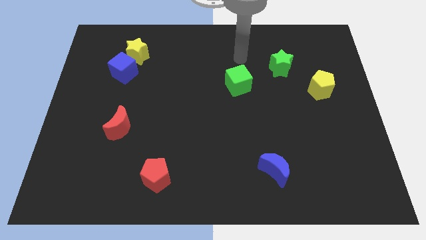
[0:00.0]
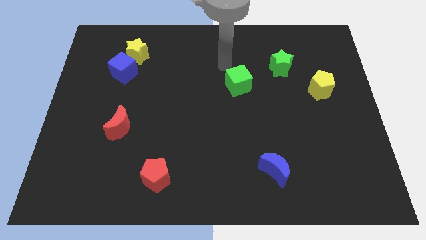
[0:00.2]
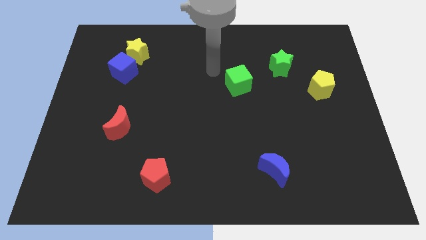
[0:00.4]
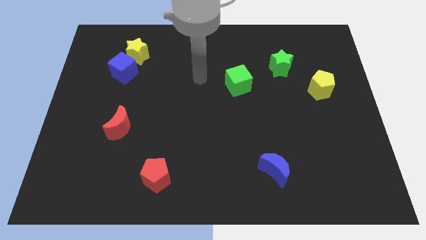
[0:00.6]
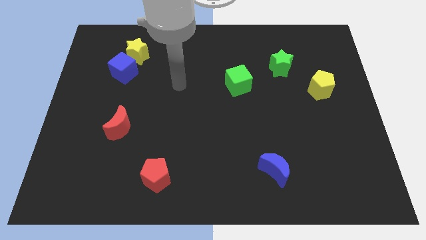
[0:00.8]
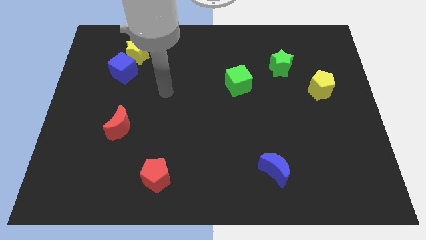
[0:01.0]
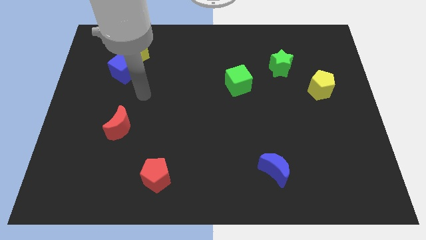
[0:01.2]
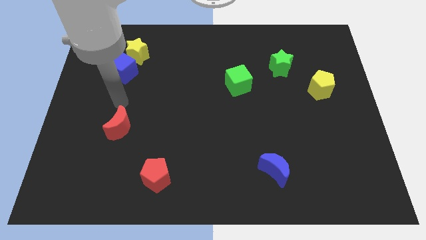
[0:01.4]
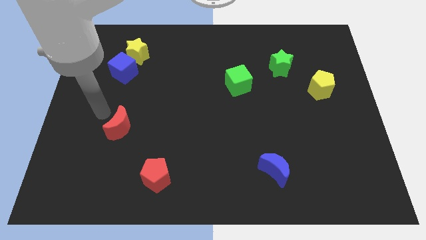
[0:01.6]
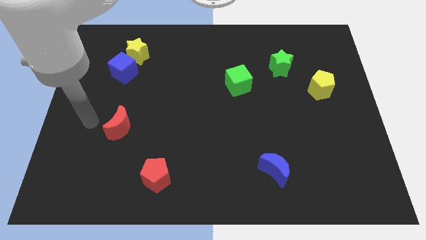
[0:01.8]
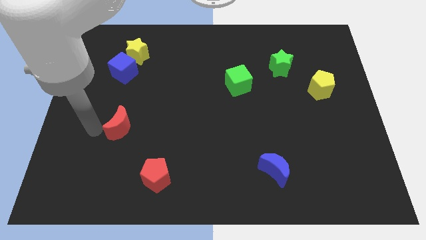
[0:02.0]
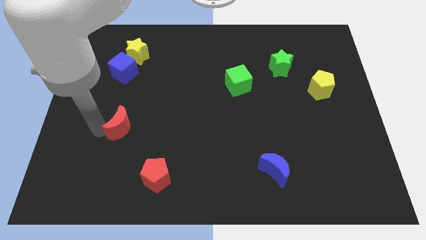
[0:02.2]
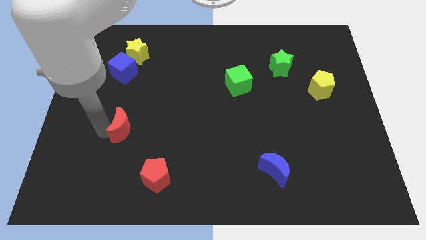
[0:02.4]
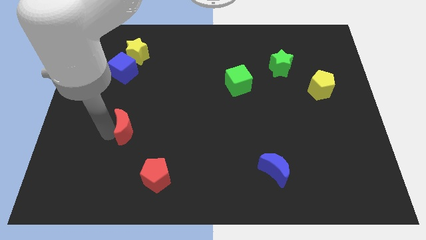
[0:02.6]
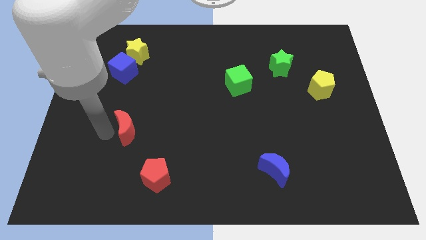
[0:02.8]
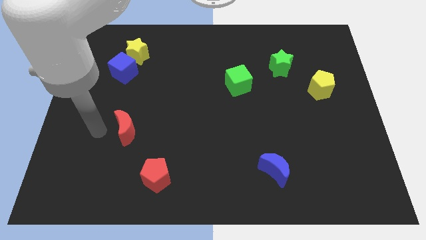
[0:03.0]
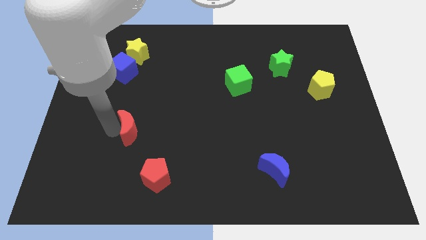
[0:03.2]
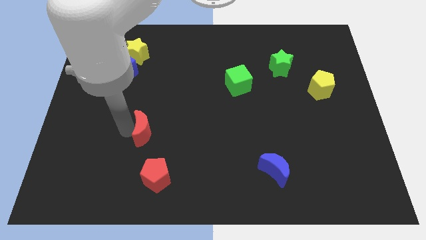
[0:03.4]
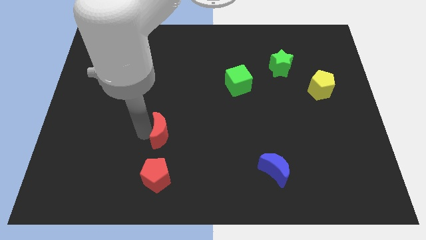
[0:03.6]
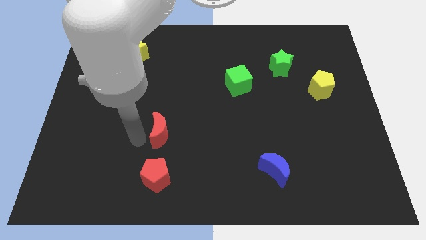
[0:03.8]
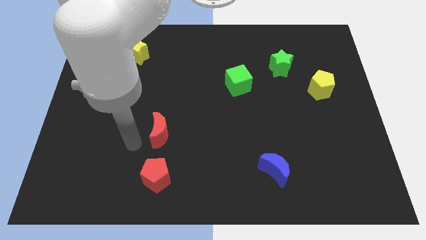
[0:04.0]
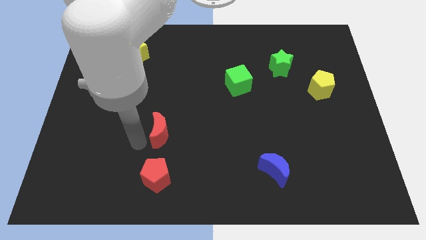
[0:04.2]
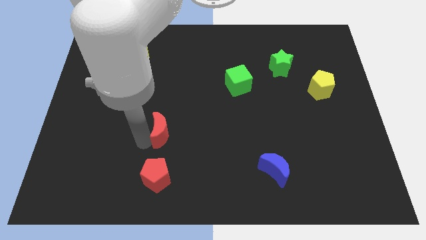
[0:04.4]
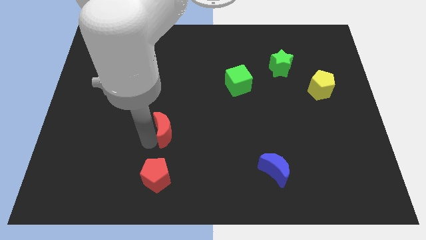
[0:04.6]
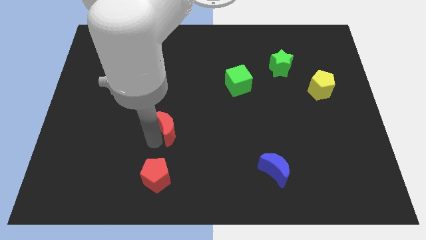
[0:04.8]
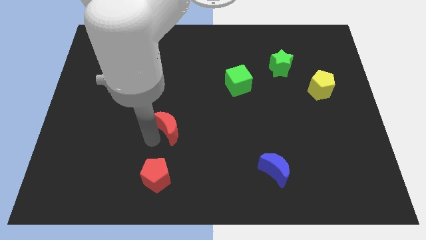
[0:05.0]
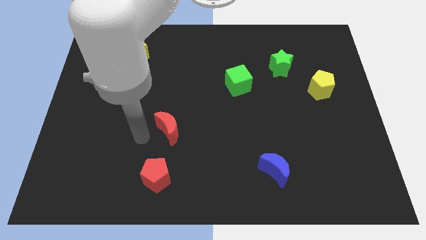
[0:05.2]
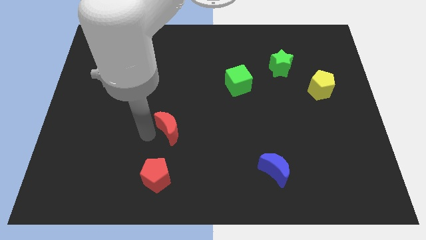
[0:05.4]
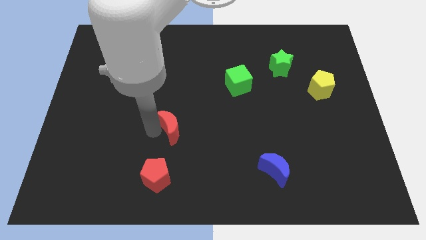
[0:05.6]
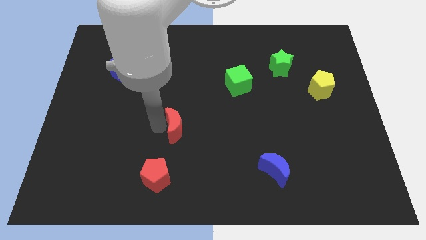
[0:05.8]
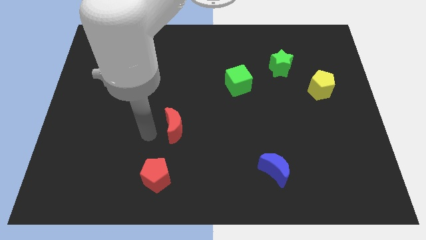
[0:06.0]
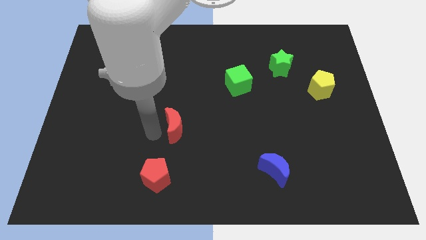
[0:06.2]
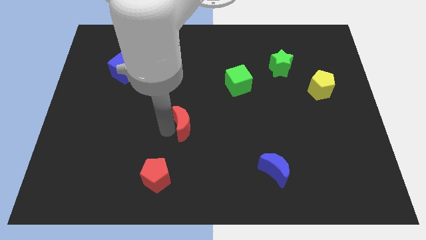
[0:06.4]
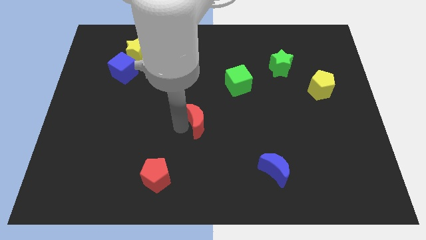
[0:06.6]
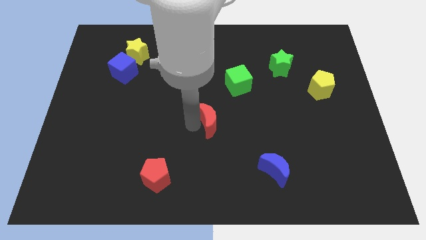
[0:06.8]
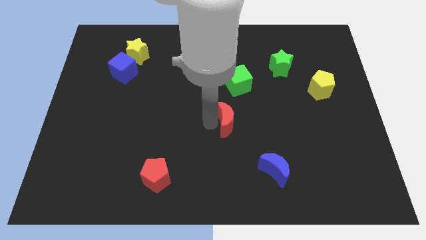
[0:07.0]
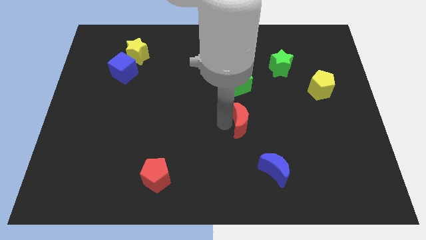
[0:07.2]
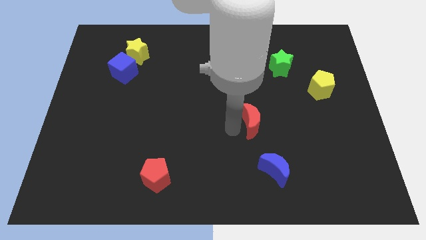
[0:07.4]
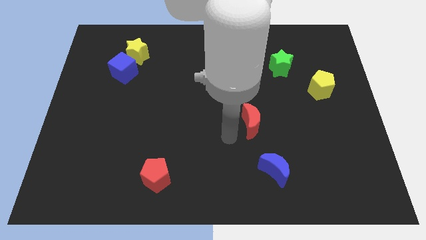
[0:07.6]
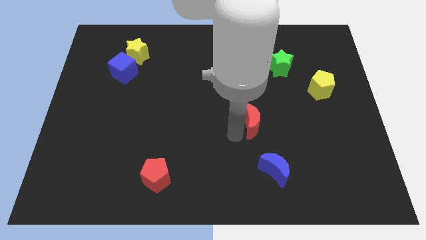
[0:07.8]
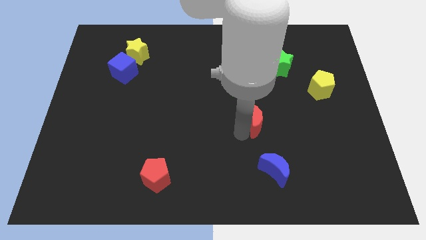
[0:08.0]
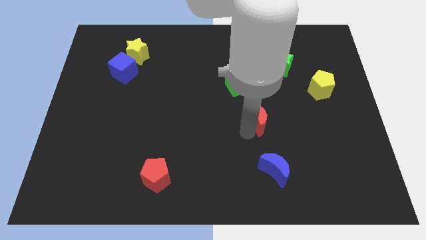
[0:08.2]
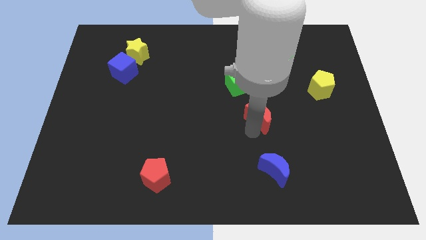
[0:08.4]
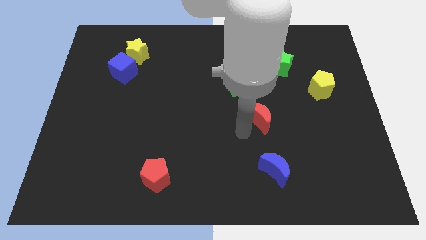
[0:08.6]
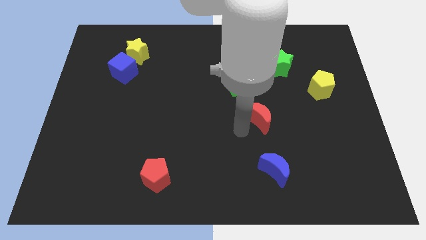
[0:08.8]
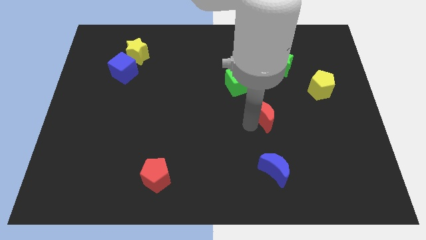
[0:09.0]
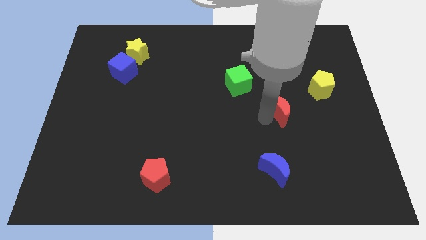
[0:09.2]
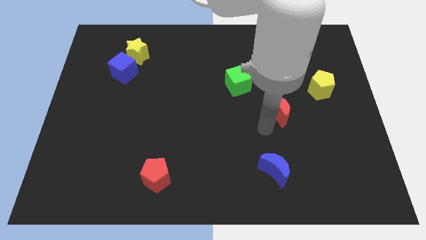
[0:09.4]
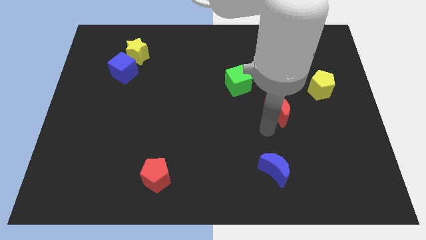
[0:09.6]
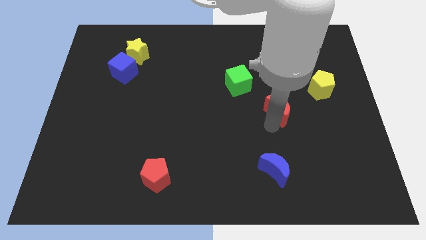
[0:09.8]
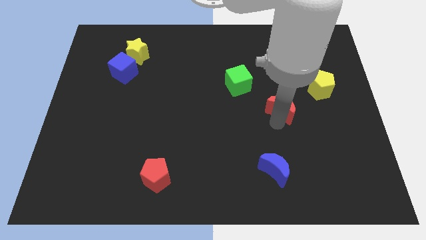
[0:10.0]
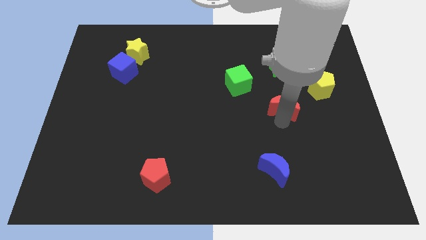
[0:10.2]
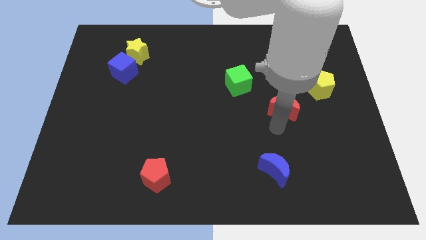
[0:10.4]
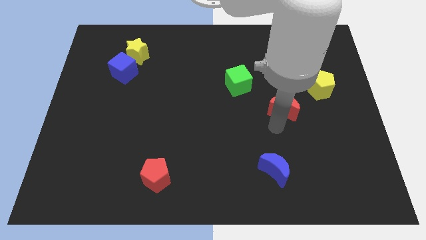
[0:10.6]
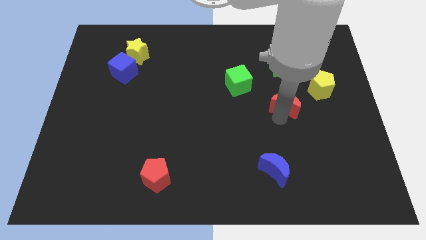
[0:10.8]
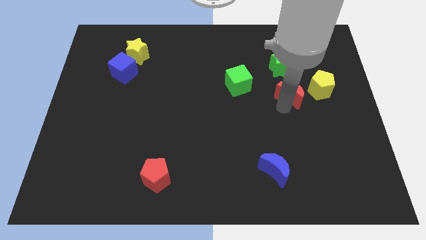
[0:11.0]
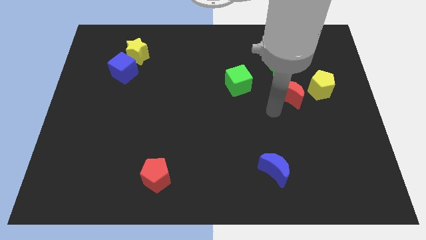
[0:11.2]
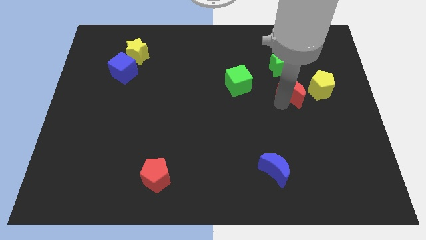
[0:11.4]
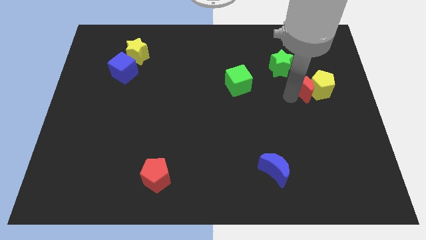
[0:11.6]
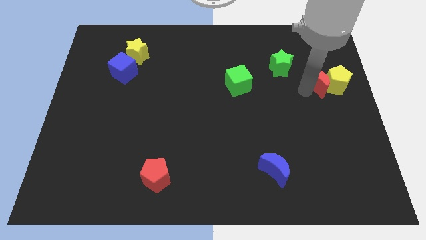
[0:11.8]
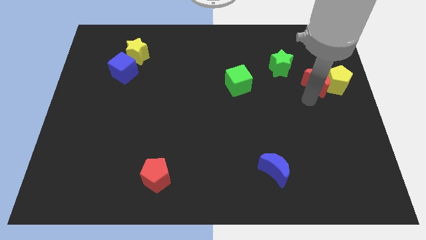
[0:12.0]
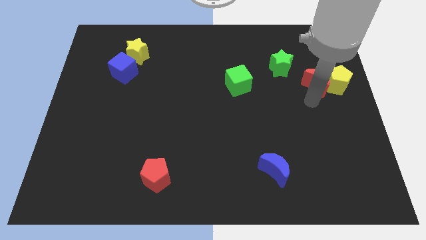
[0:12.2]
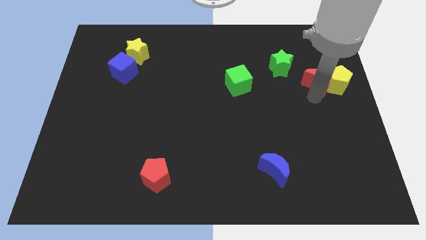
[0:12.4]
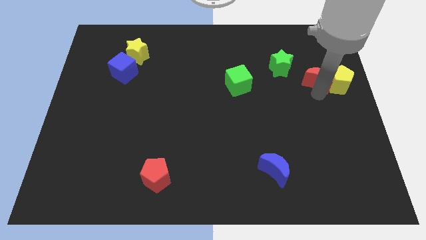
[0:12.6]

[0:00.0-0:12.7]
put the red moon right of the green star

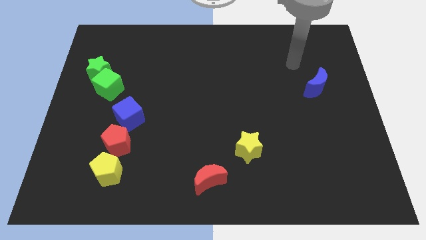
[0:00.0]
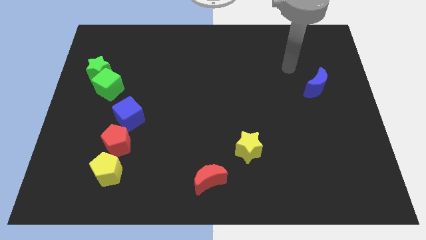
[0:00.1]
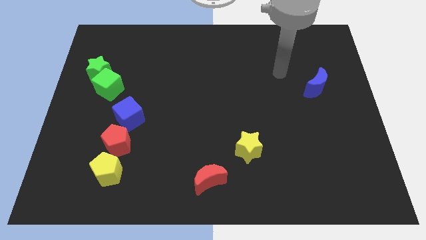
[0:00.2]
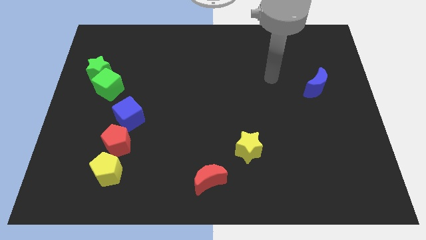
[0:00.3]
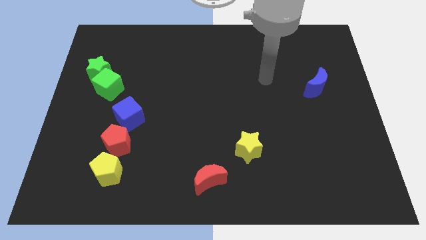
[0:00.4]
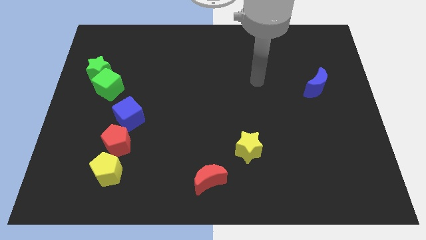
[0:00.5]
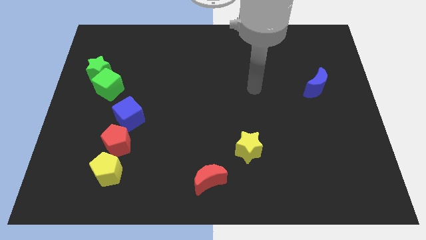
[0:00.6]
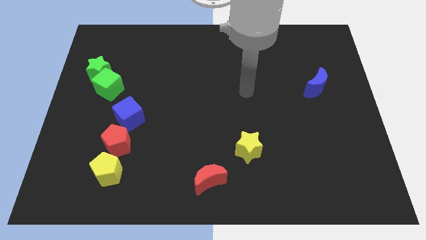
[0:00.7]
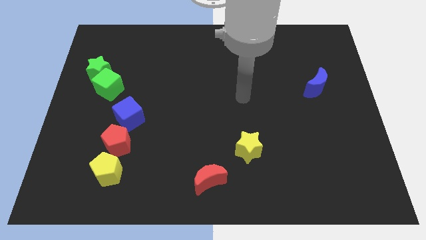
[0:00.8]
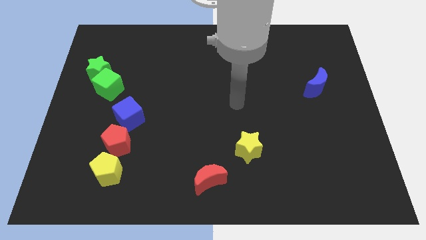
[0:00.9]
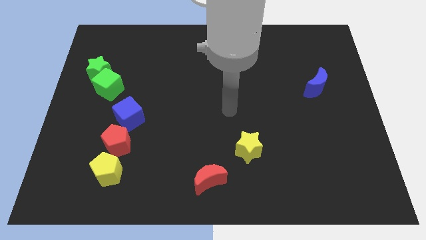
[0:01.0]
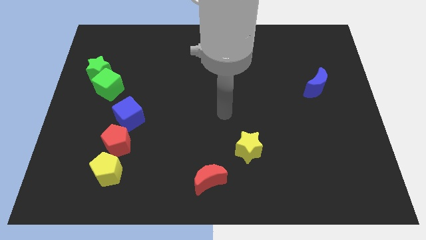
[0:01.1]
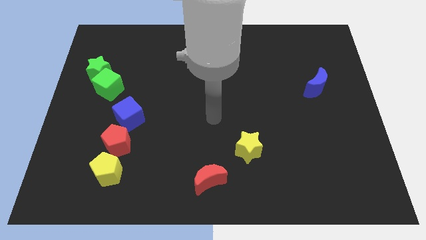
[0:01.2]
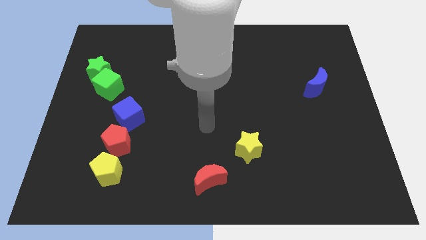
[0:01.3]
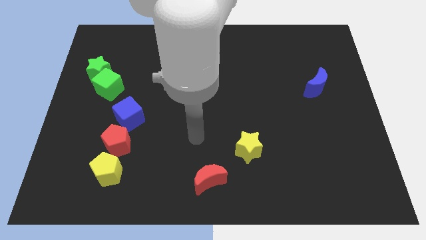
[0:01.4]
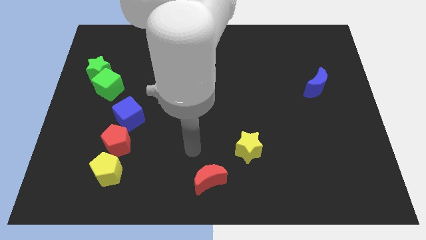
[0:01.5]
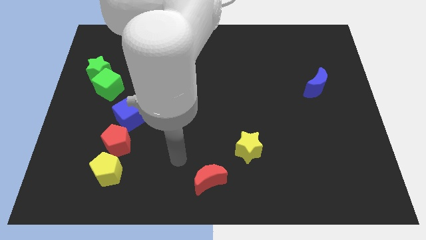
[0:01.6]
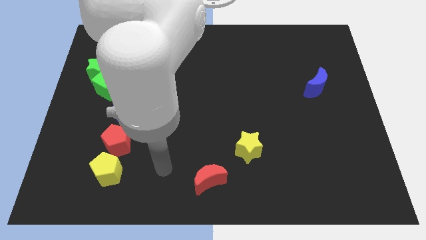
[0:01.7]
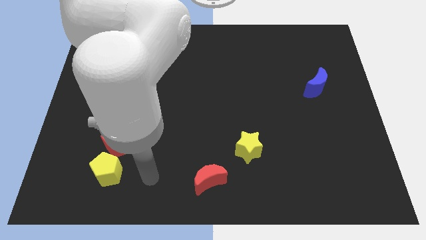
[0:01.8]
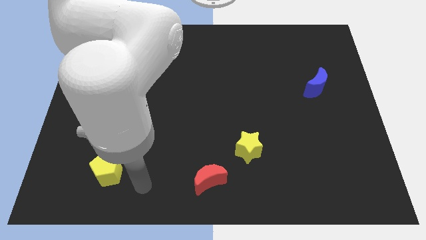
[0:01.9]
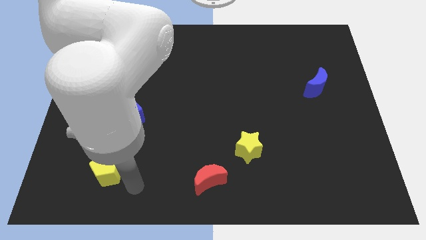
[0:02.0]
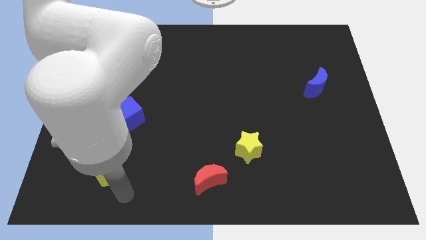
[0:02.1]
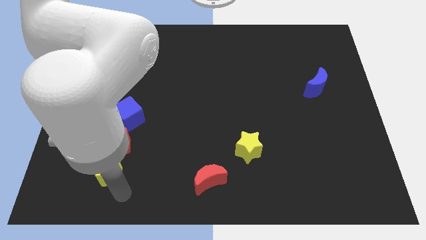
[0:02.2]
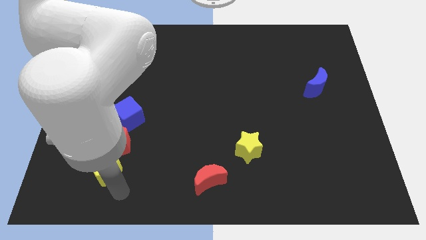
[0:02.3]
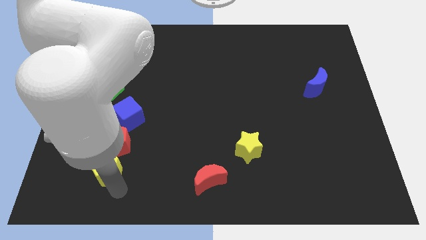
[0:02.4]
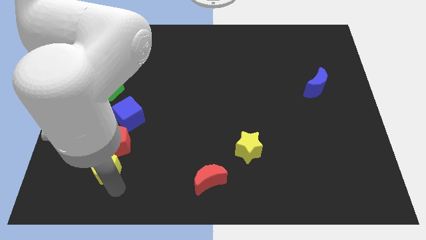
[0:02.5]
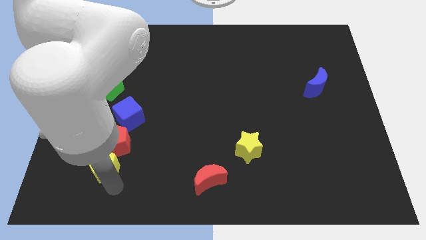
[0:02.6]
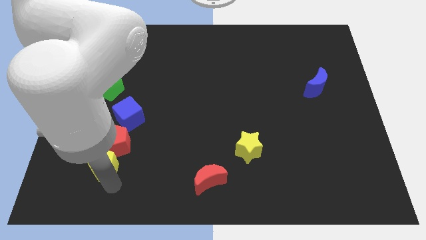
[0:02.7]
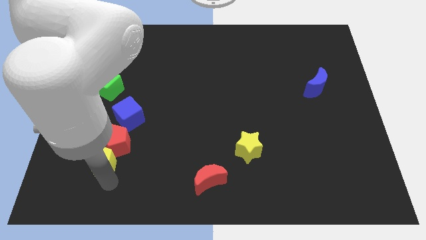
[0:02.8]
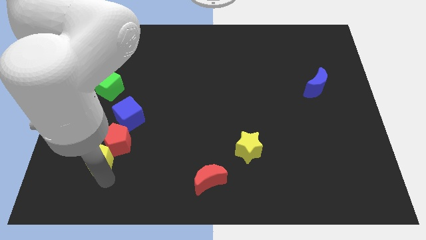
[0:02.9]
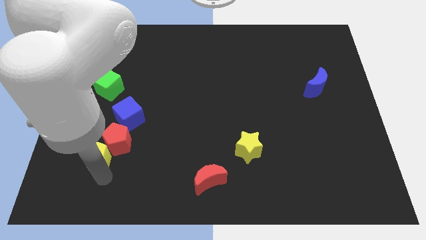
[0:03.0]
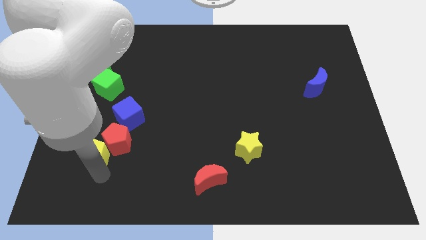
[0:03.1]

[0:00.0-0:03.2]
slide the yellow pentagon diagonally down and to the left of the blue cube
